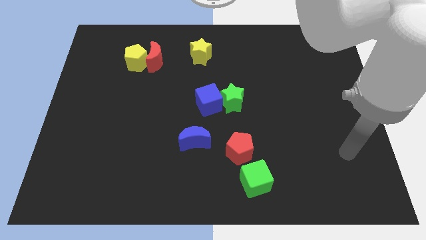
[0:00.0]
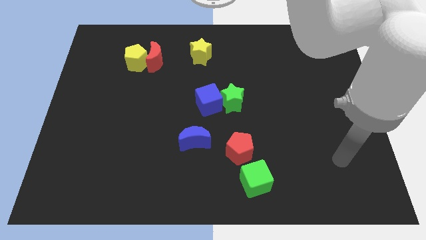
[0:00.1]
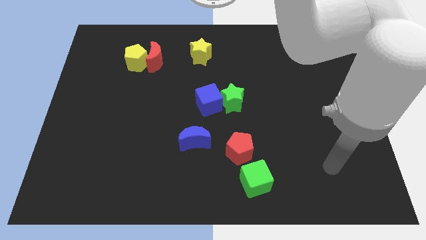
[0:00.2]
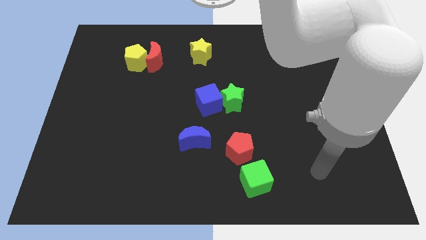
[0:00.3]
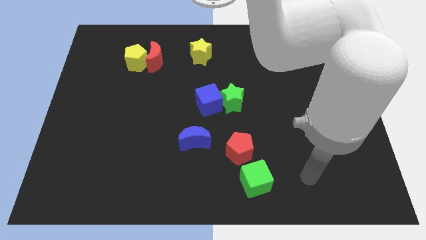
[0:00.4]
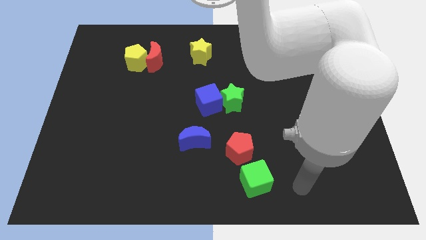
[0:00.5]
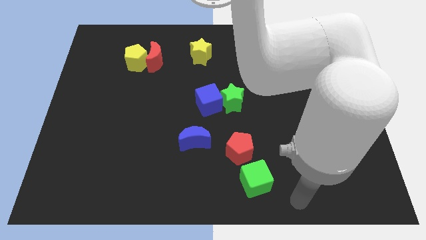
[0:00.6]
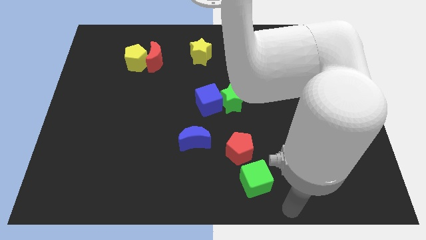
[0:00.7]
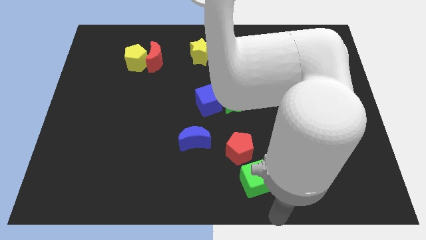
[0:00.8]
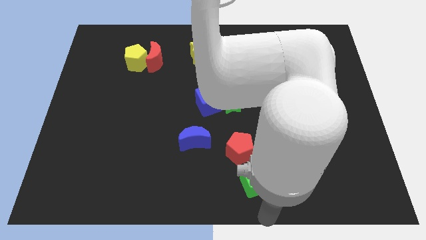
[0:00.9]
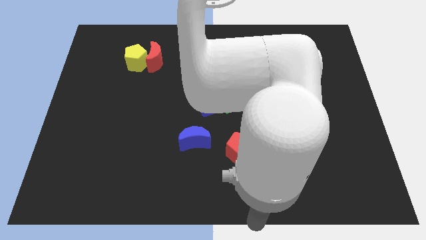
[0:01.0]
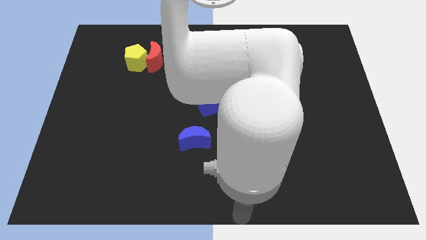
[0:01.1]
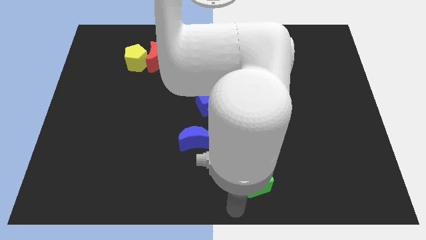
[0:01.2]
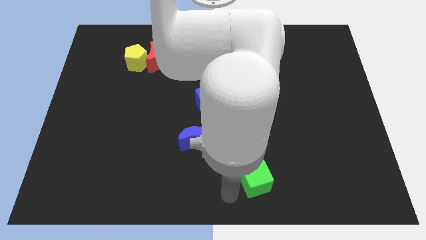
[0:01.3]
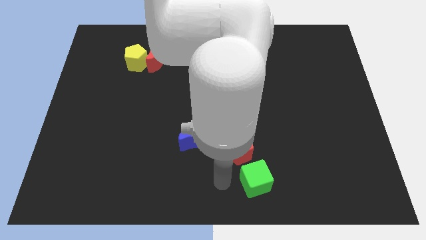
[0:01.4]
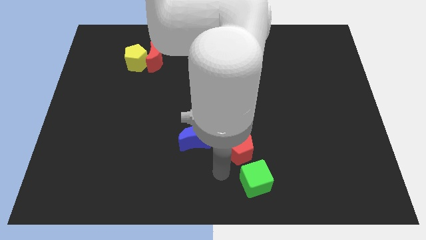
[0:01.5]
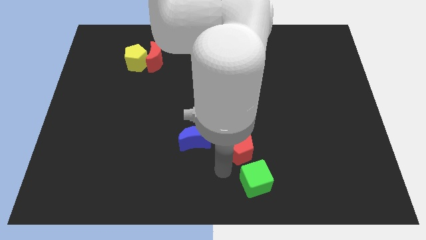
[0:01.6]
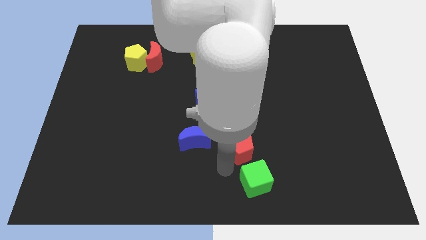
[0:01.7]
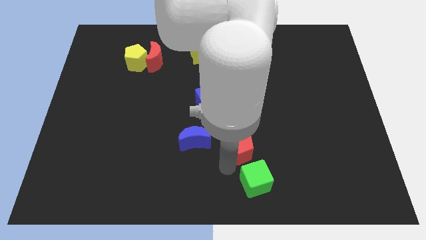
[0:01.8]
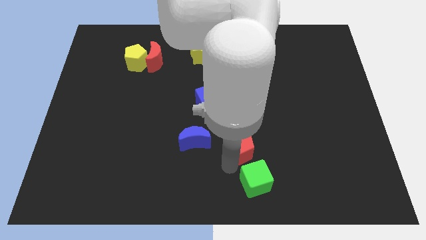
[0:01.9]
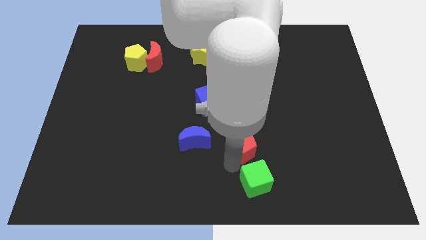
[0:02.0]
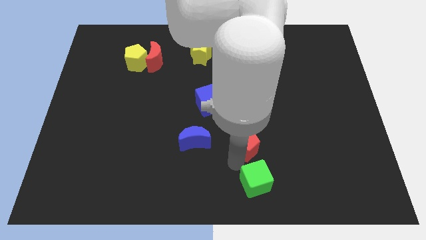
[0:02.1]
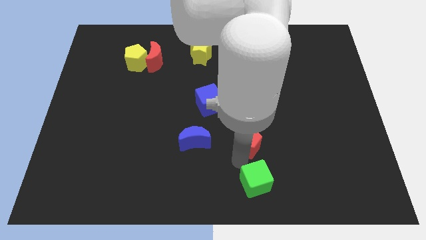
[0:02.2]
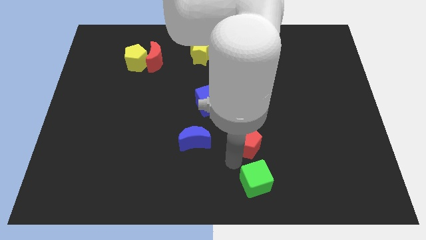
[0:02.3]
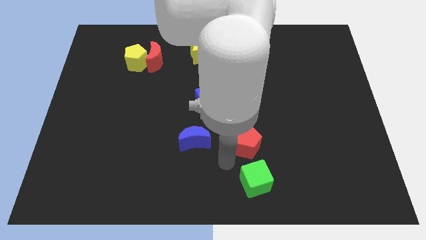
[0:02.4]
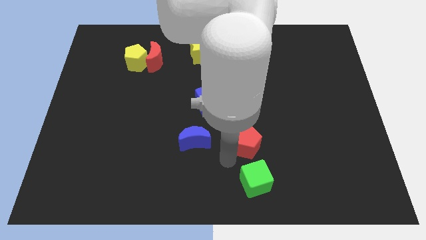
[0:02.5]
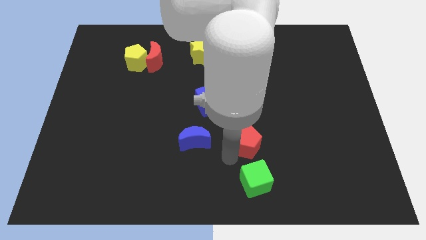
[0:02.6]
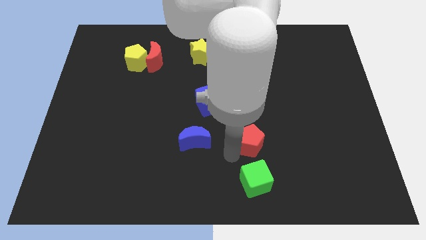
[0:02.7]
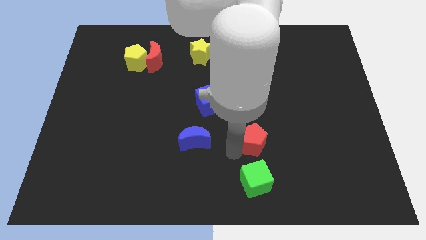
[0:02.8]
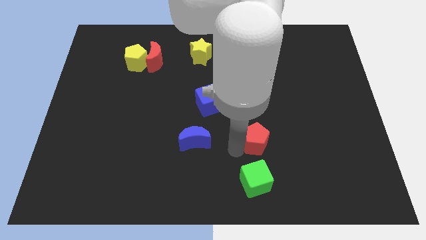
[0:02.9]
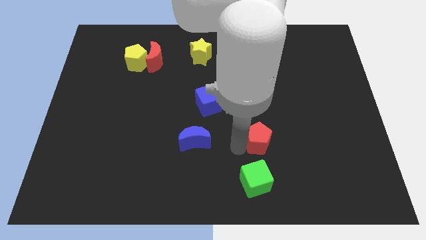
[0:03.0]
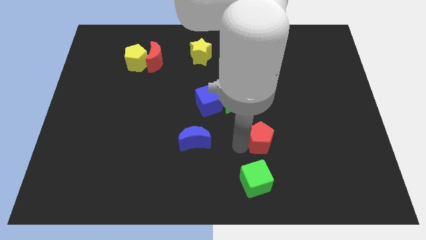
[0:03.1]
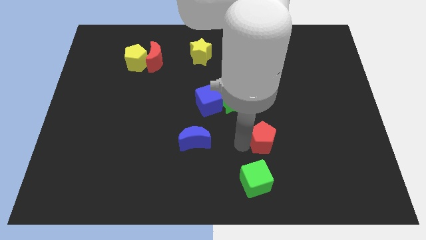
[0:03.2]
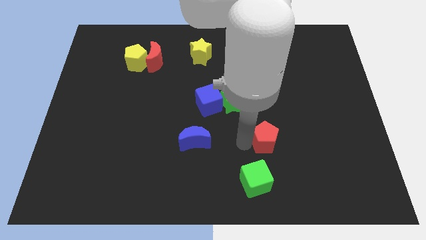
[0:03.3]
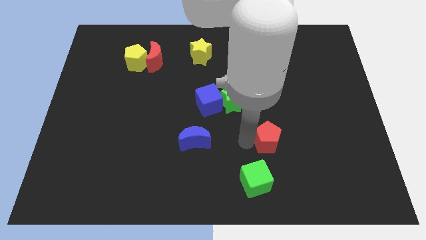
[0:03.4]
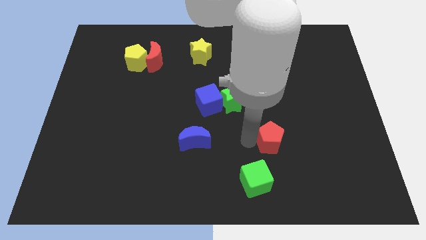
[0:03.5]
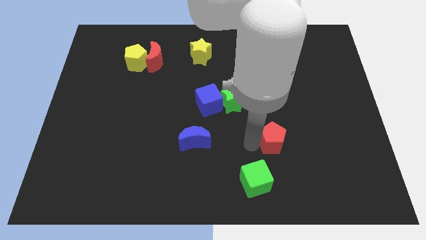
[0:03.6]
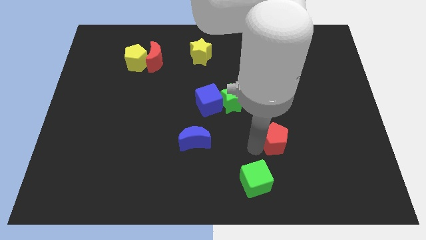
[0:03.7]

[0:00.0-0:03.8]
slightly slide the red pentagon upwards and to the right

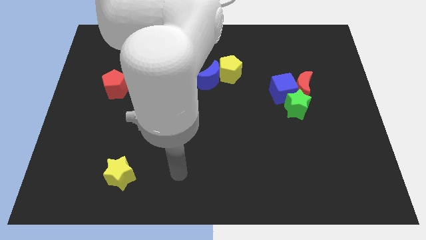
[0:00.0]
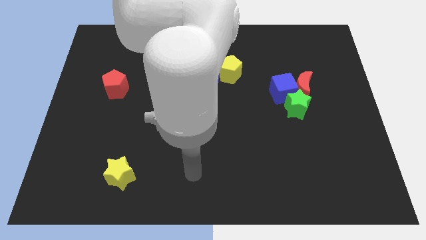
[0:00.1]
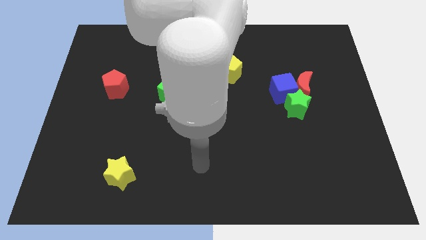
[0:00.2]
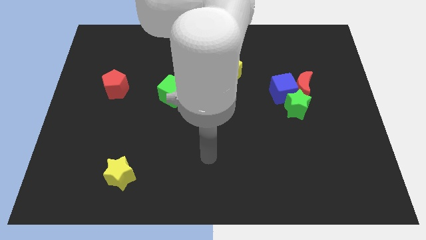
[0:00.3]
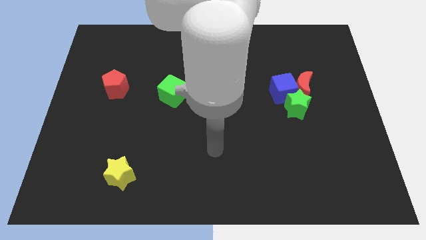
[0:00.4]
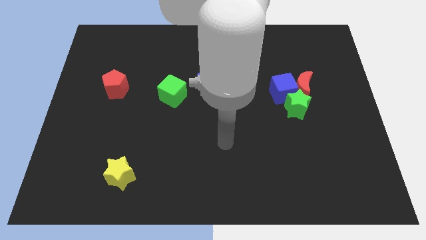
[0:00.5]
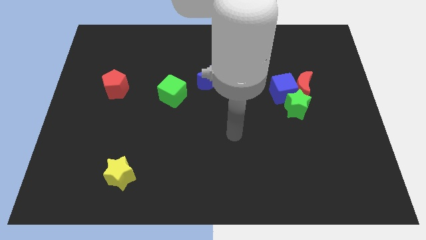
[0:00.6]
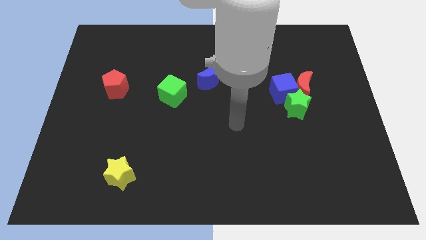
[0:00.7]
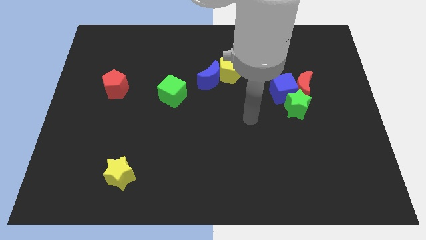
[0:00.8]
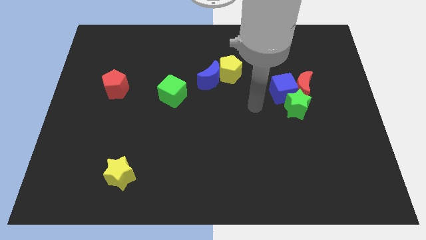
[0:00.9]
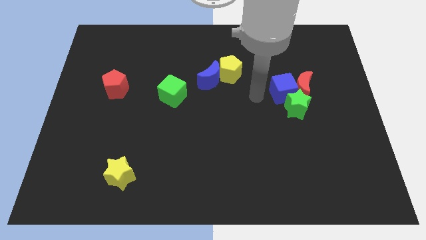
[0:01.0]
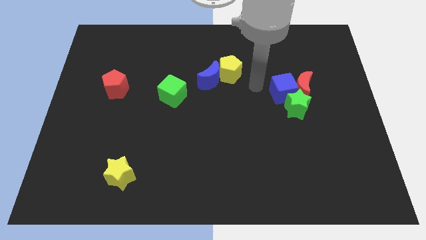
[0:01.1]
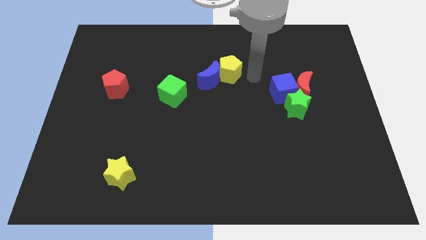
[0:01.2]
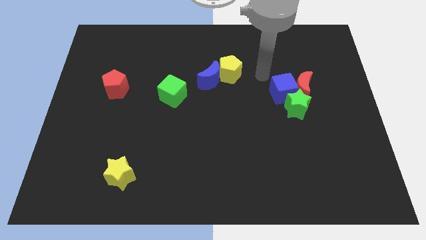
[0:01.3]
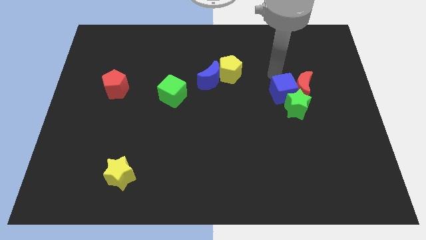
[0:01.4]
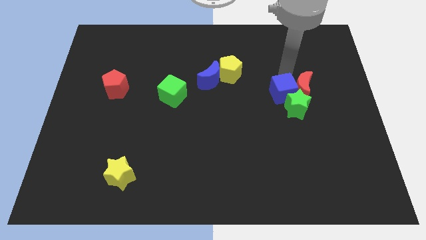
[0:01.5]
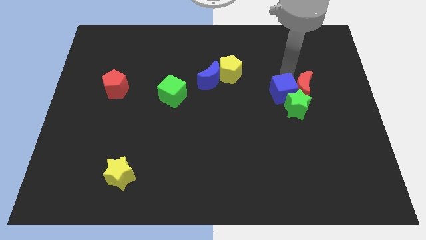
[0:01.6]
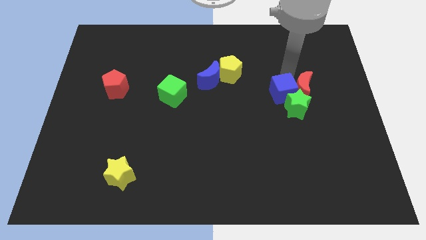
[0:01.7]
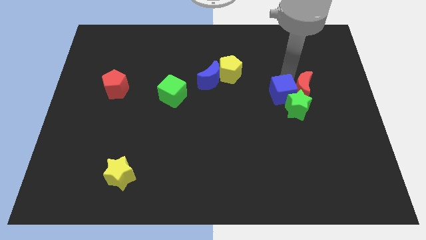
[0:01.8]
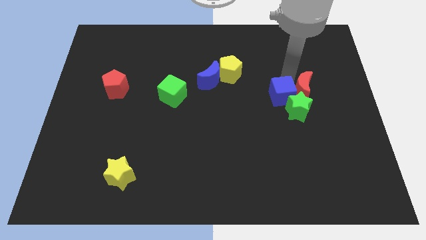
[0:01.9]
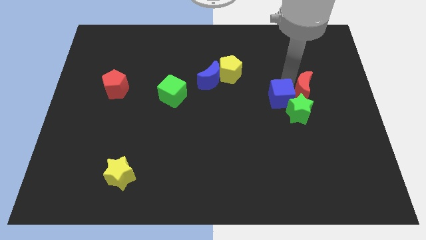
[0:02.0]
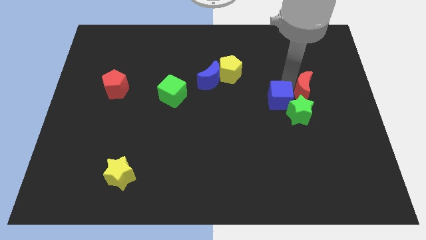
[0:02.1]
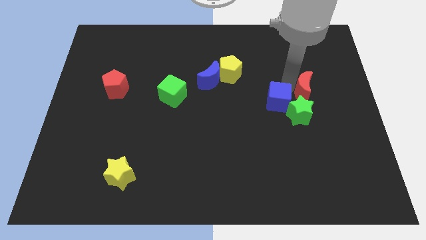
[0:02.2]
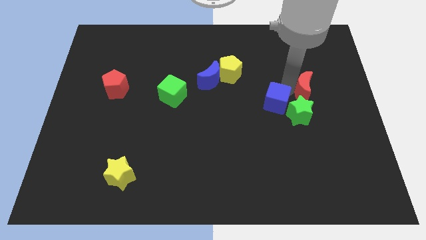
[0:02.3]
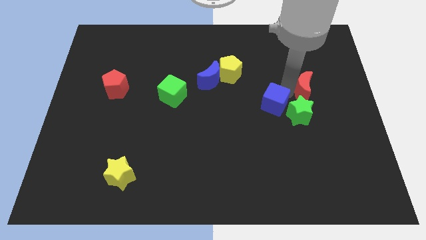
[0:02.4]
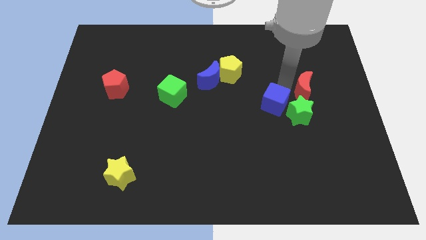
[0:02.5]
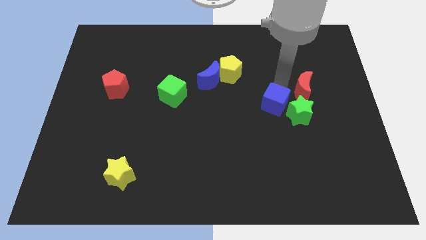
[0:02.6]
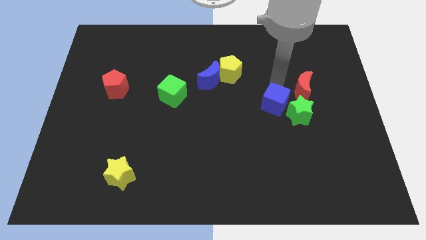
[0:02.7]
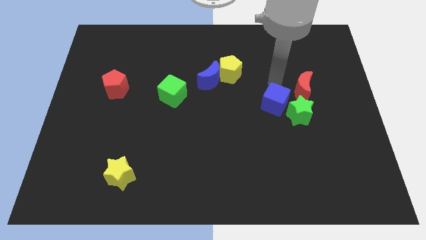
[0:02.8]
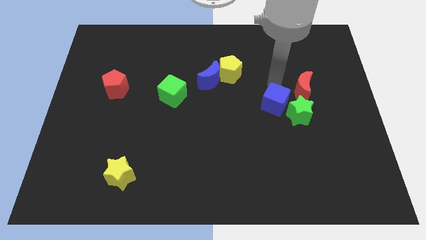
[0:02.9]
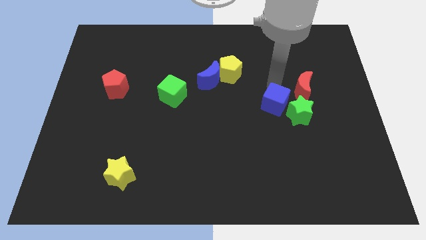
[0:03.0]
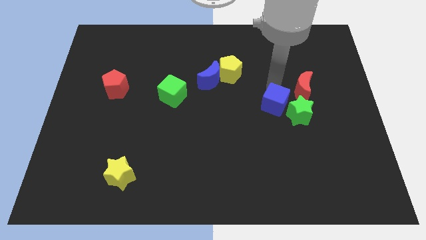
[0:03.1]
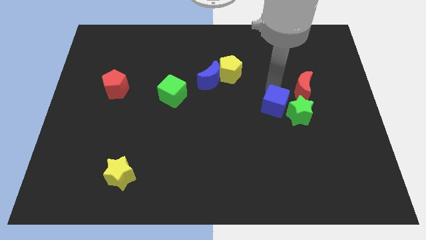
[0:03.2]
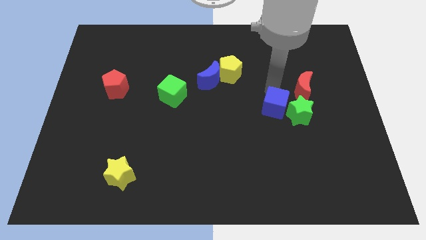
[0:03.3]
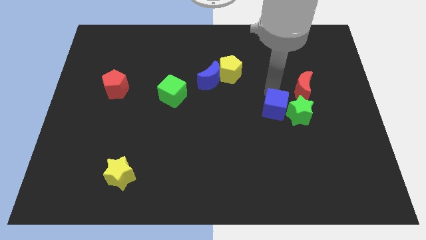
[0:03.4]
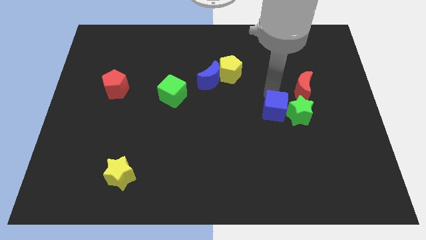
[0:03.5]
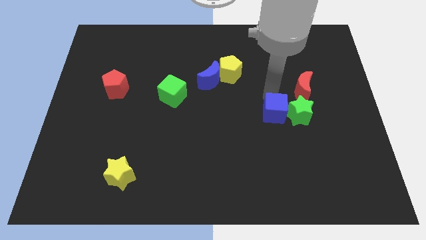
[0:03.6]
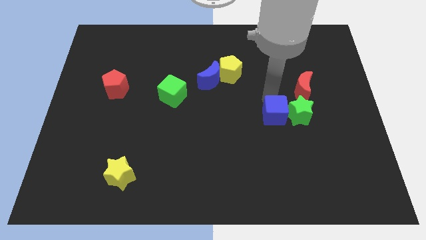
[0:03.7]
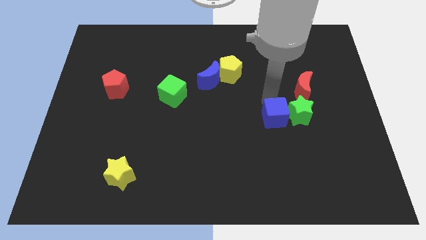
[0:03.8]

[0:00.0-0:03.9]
slightly slide the blue cube down

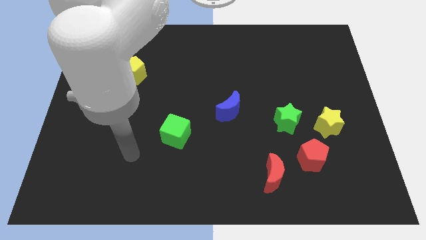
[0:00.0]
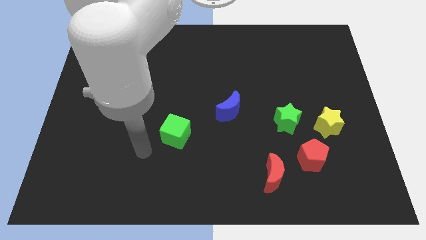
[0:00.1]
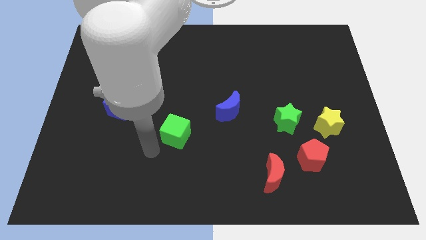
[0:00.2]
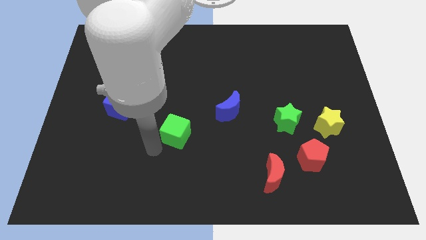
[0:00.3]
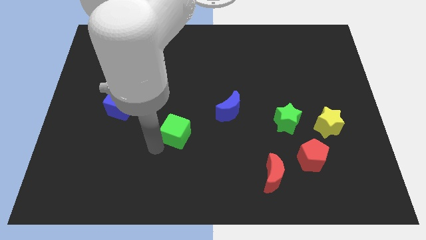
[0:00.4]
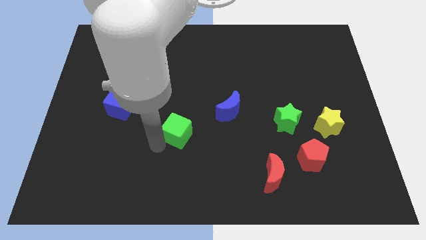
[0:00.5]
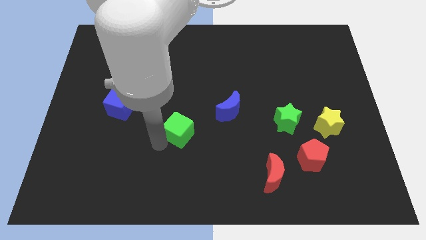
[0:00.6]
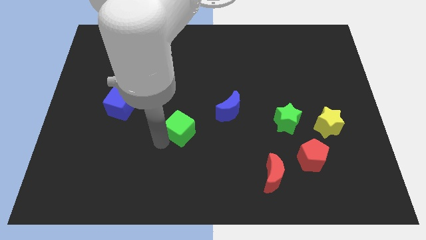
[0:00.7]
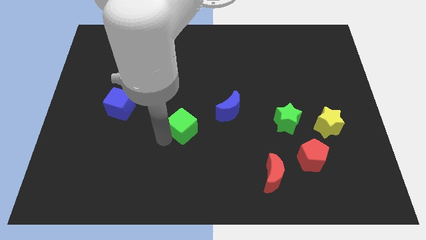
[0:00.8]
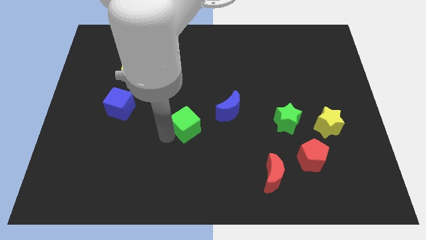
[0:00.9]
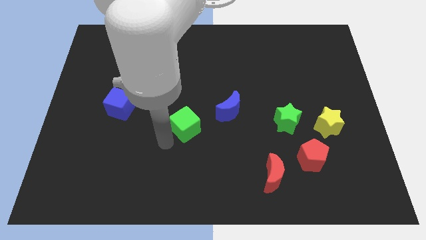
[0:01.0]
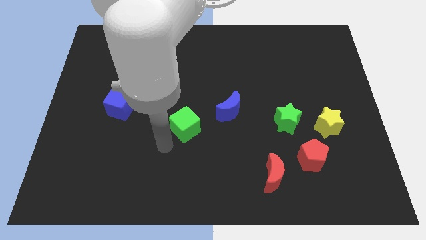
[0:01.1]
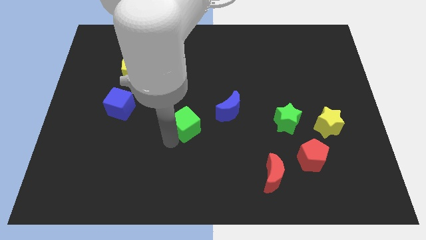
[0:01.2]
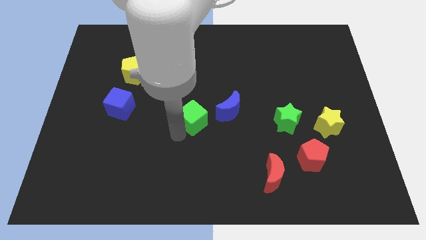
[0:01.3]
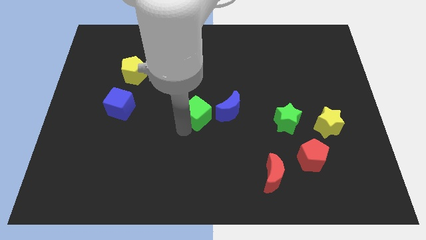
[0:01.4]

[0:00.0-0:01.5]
slightly move the green cube up and to the right
